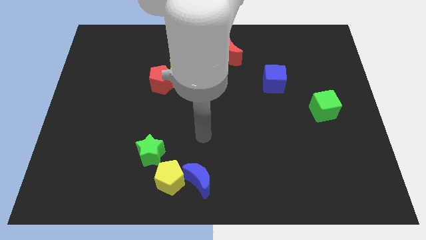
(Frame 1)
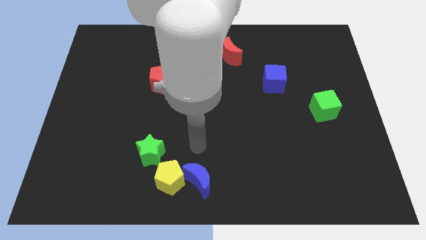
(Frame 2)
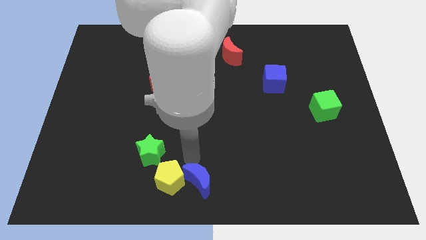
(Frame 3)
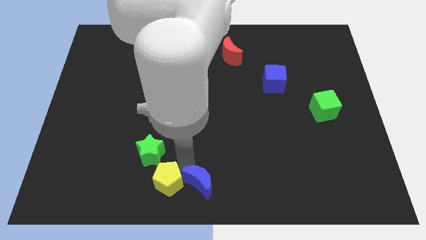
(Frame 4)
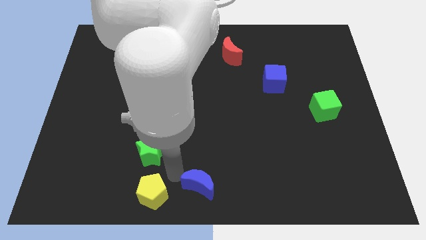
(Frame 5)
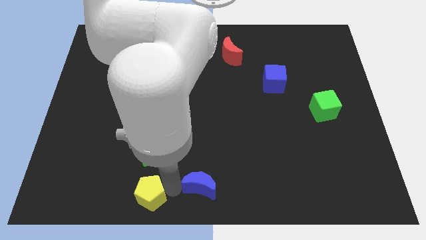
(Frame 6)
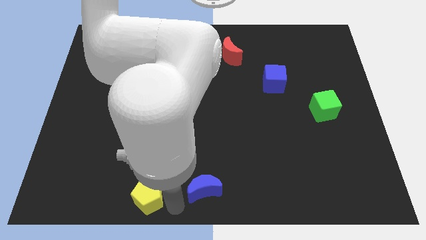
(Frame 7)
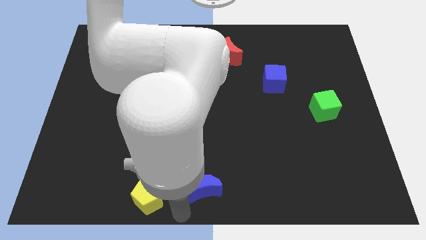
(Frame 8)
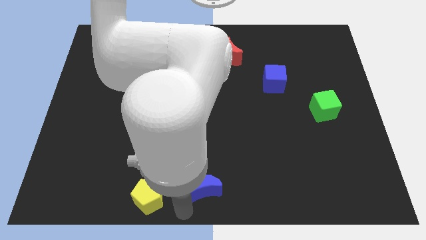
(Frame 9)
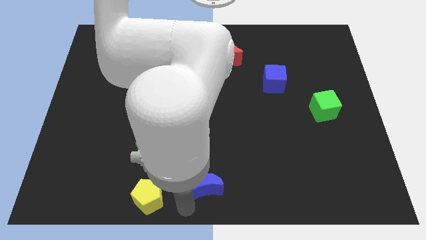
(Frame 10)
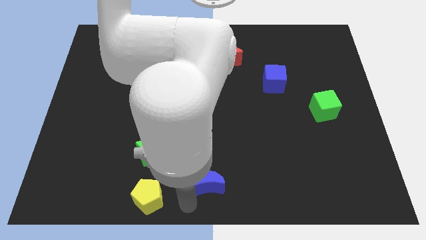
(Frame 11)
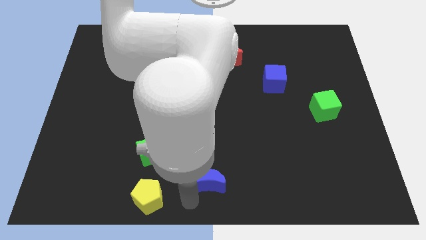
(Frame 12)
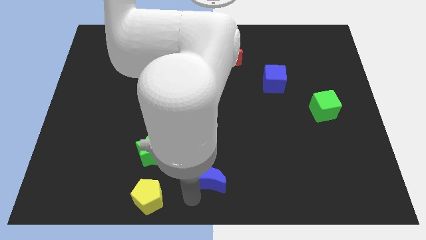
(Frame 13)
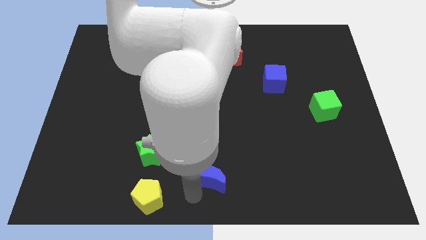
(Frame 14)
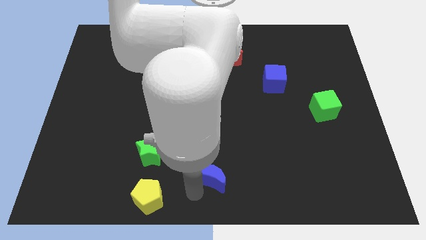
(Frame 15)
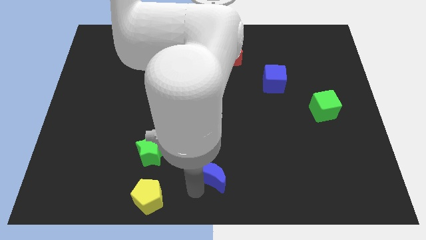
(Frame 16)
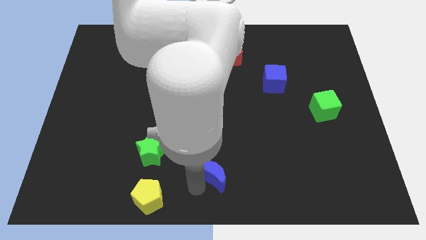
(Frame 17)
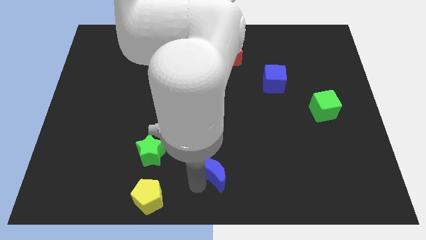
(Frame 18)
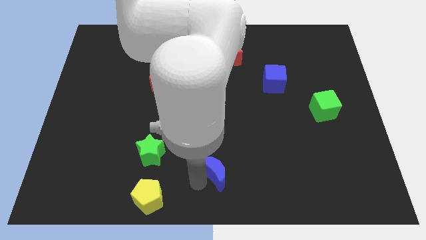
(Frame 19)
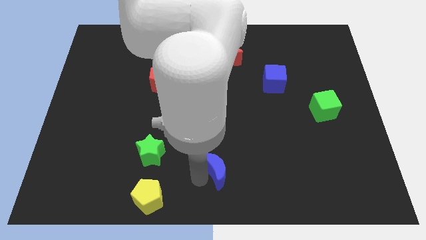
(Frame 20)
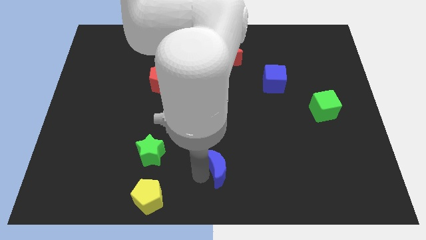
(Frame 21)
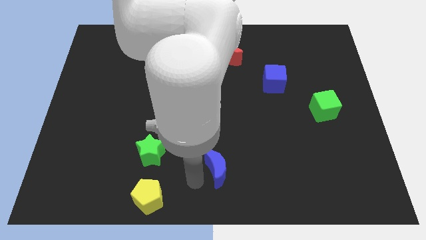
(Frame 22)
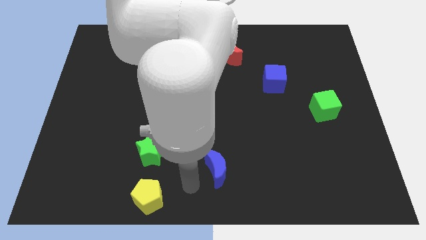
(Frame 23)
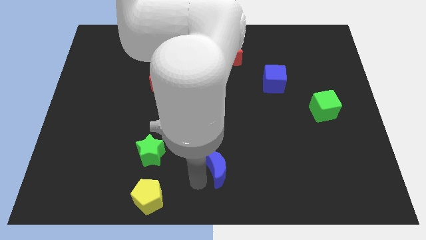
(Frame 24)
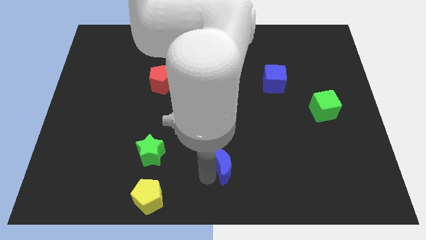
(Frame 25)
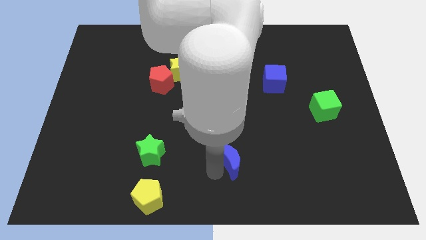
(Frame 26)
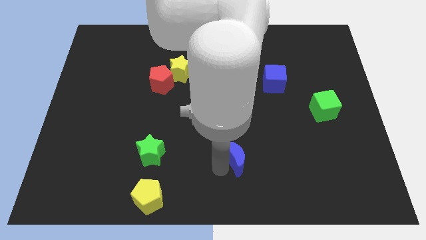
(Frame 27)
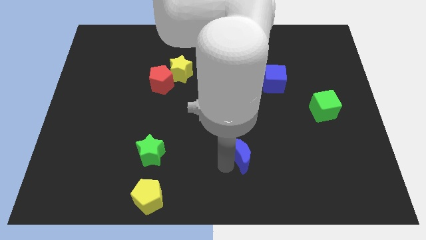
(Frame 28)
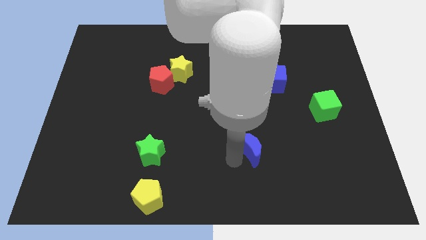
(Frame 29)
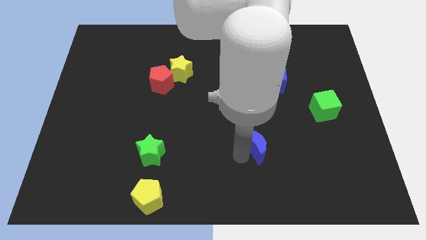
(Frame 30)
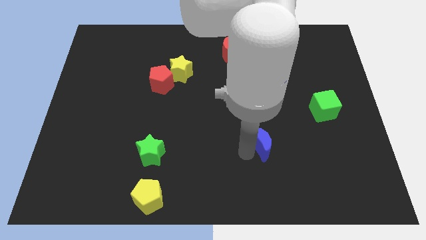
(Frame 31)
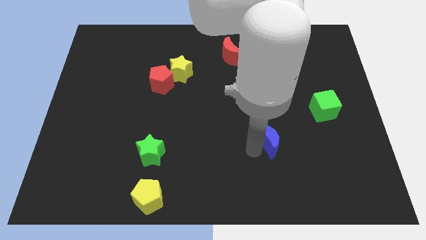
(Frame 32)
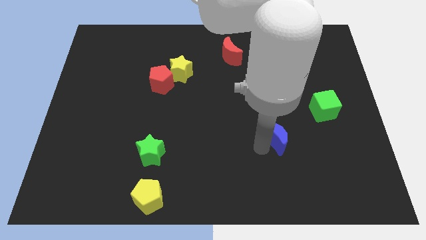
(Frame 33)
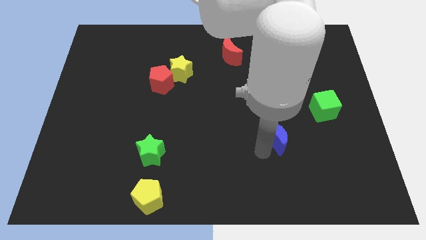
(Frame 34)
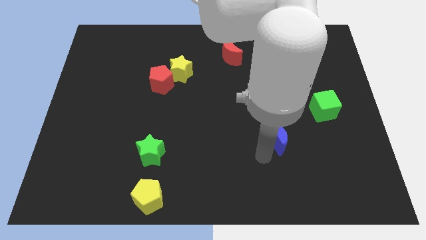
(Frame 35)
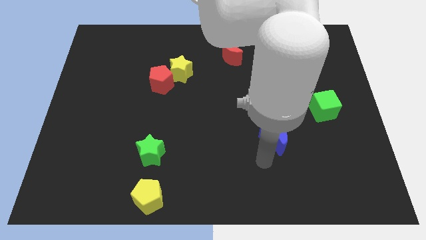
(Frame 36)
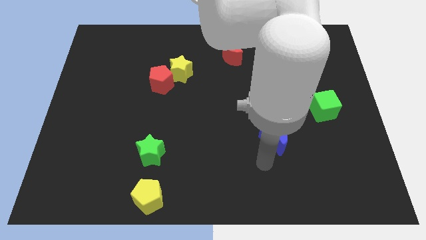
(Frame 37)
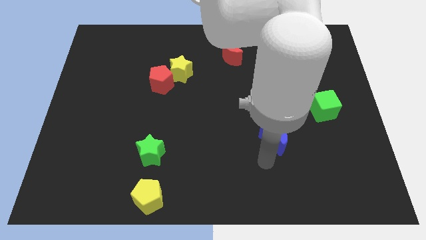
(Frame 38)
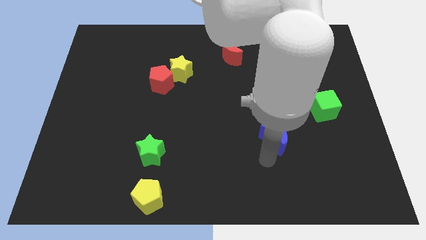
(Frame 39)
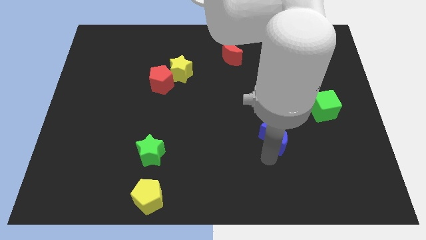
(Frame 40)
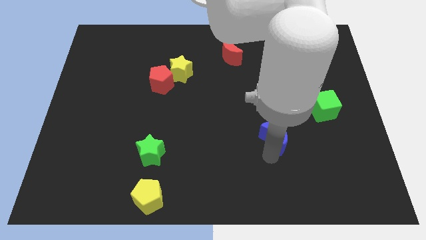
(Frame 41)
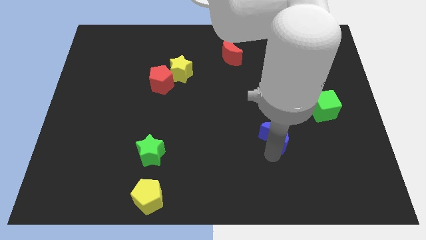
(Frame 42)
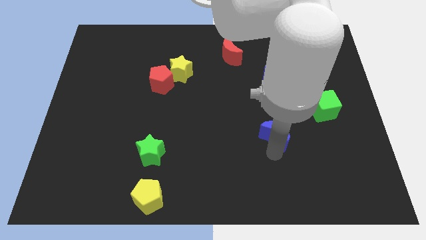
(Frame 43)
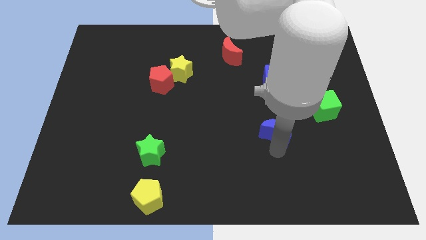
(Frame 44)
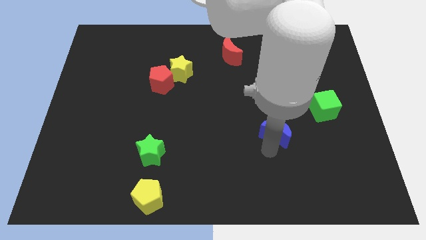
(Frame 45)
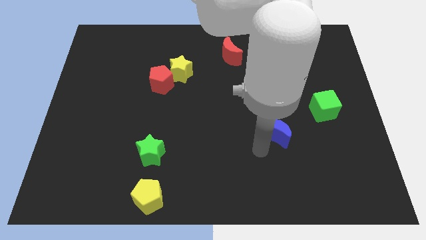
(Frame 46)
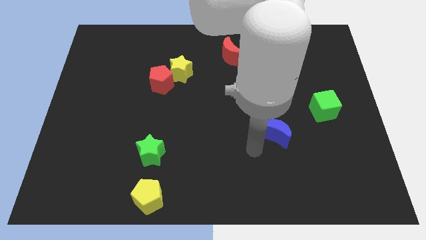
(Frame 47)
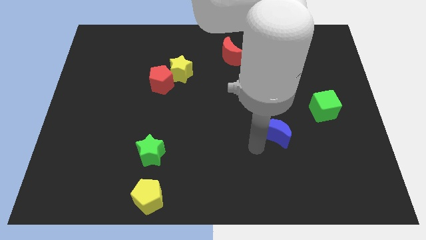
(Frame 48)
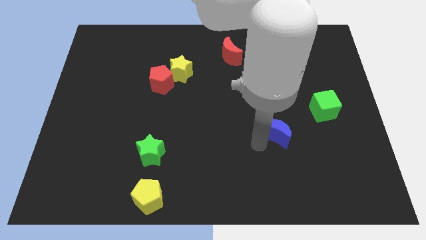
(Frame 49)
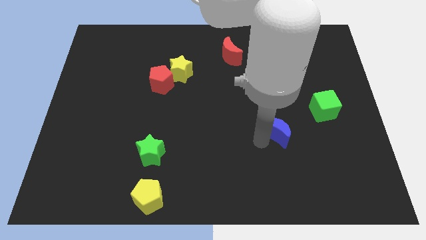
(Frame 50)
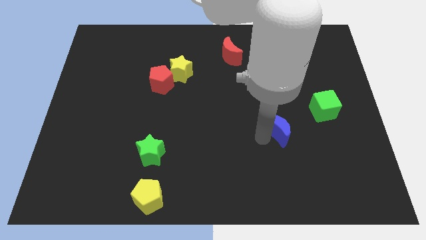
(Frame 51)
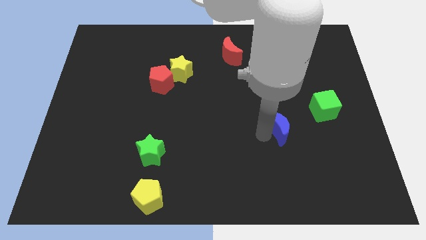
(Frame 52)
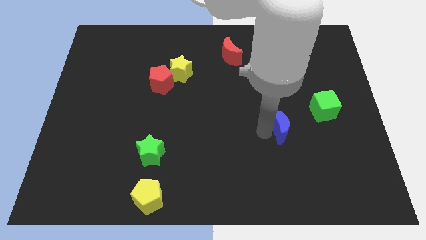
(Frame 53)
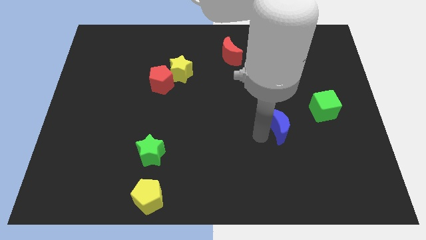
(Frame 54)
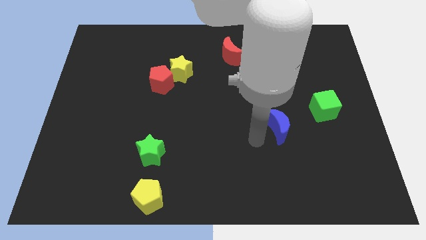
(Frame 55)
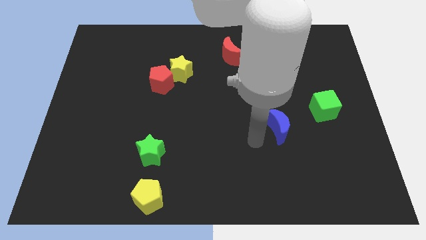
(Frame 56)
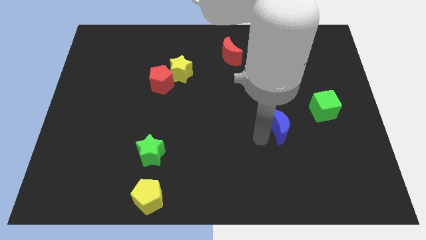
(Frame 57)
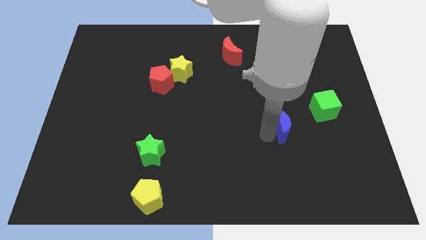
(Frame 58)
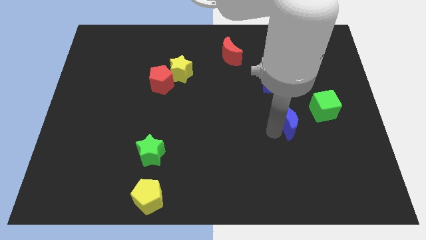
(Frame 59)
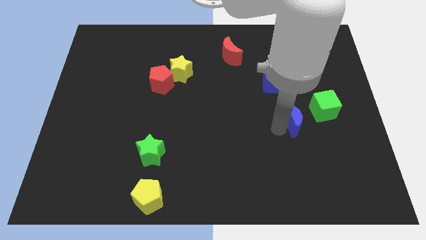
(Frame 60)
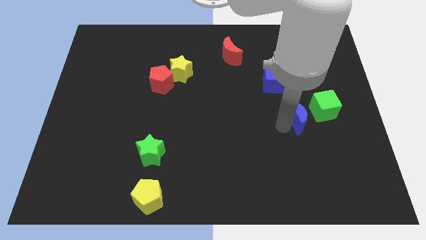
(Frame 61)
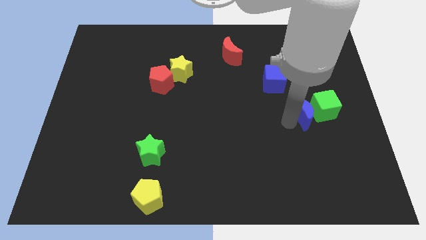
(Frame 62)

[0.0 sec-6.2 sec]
move the blue moon to the green cube

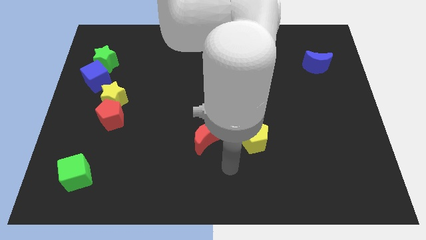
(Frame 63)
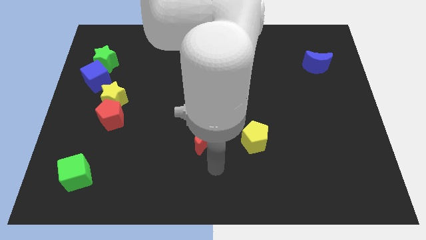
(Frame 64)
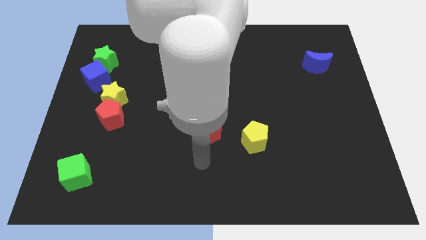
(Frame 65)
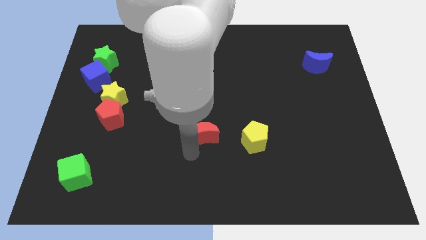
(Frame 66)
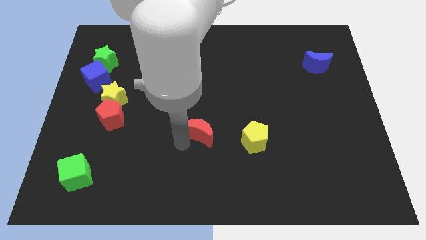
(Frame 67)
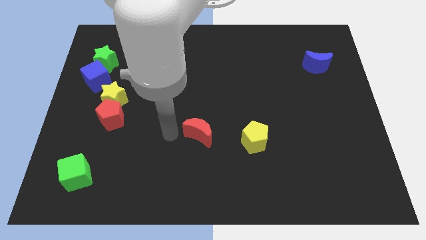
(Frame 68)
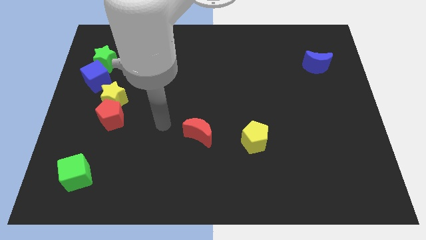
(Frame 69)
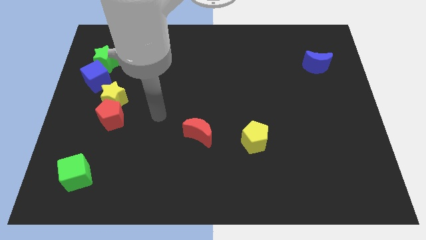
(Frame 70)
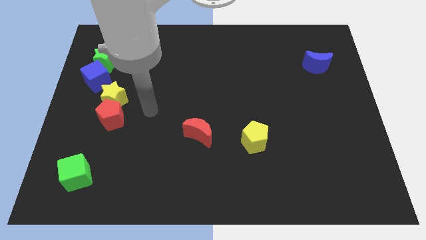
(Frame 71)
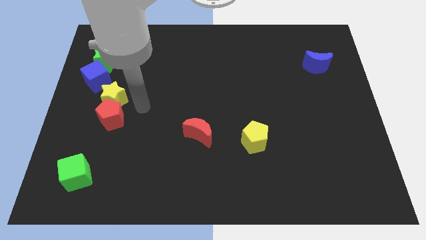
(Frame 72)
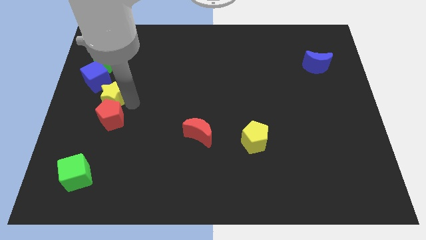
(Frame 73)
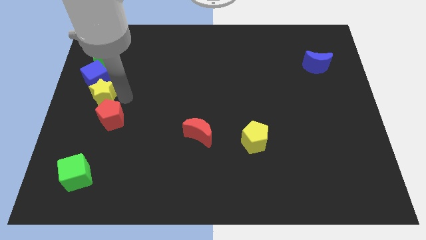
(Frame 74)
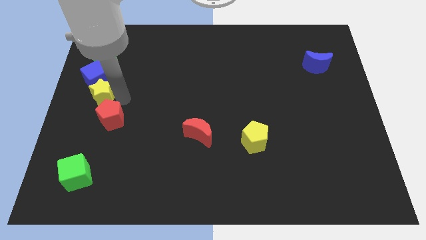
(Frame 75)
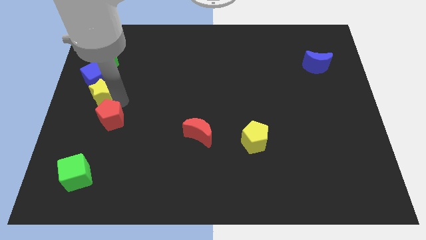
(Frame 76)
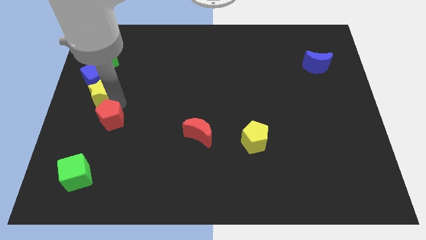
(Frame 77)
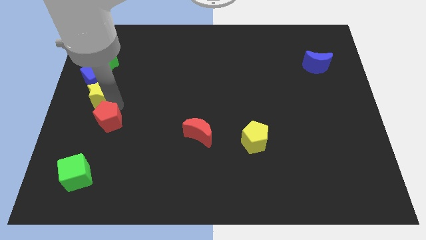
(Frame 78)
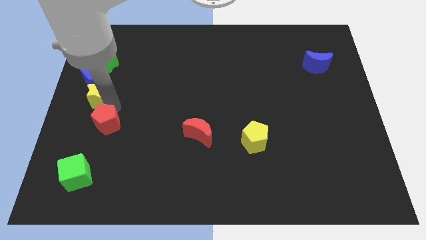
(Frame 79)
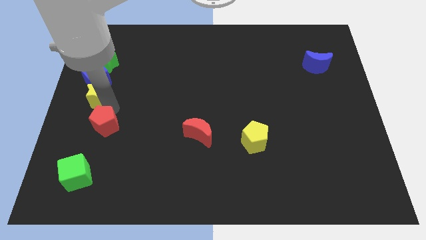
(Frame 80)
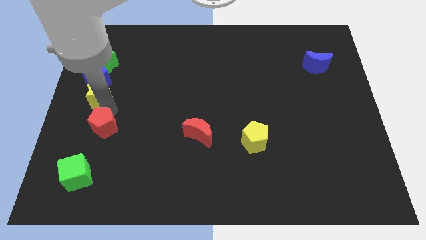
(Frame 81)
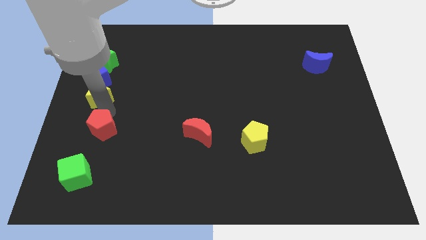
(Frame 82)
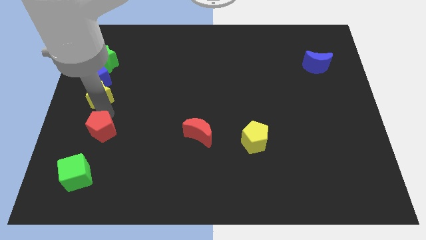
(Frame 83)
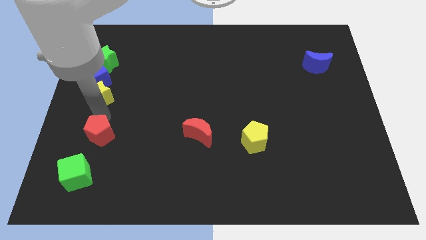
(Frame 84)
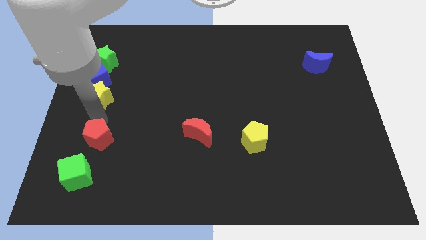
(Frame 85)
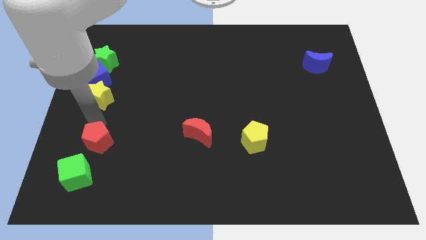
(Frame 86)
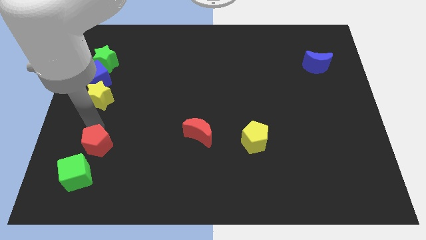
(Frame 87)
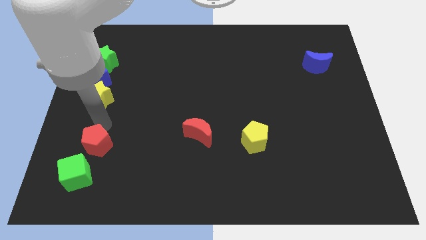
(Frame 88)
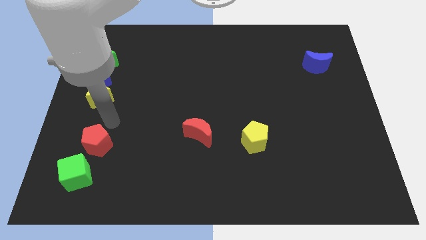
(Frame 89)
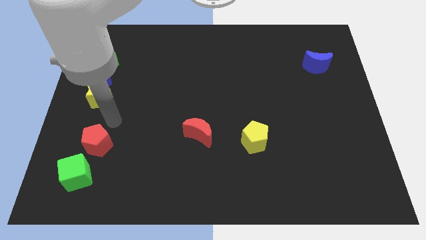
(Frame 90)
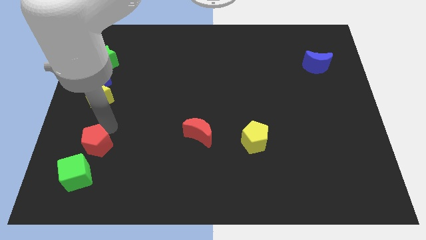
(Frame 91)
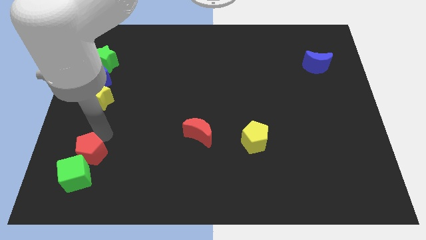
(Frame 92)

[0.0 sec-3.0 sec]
slide the red pentagon towards the green cube
